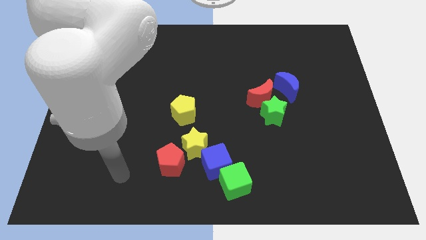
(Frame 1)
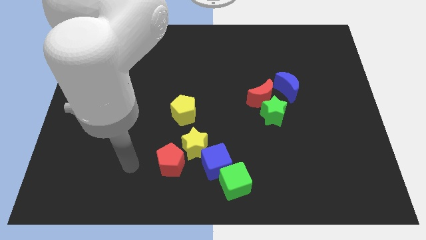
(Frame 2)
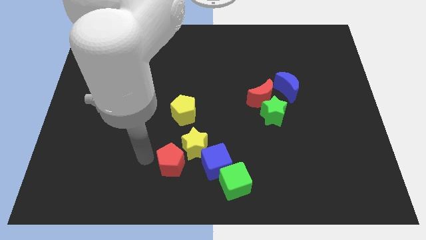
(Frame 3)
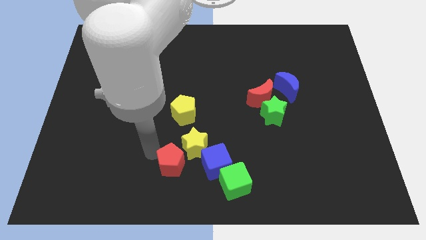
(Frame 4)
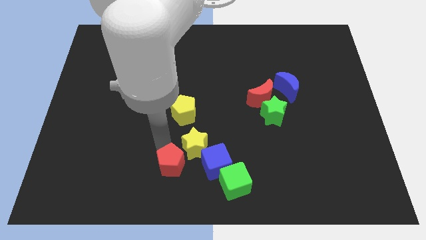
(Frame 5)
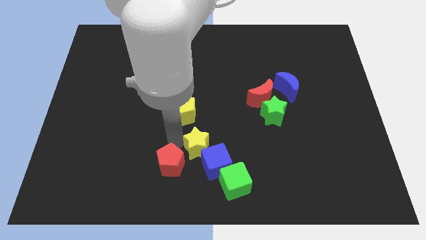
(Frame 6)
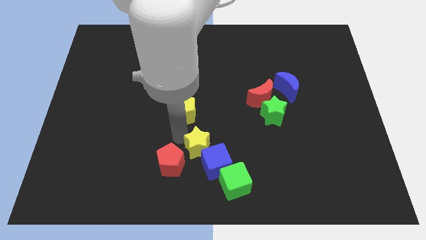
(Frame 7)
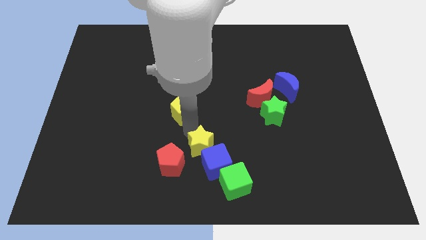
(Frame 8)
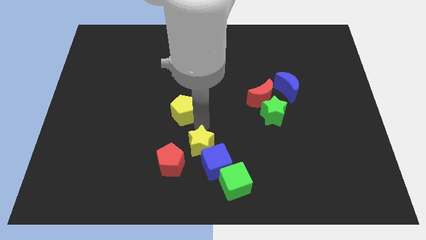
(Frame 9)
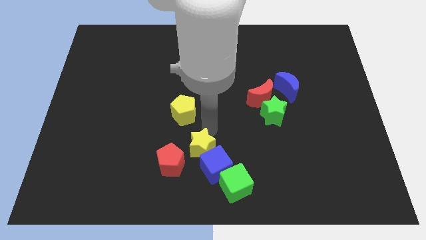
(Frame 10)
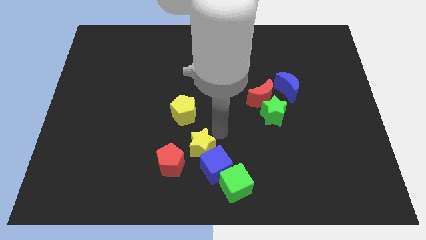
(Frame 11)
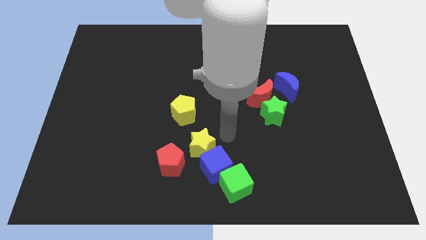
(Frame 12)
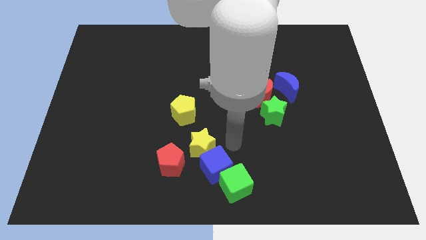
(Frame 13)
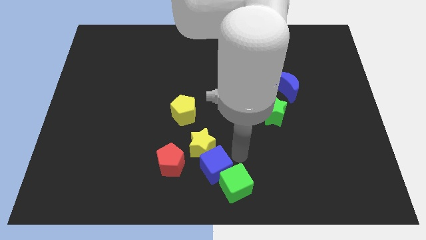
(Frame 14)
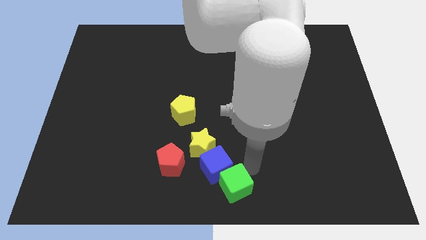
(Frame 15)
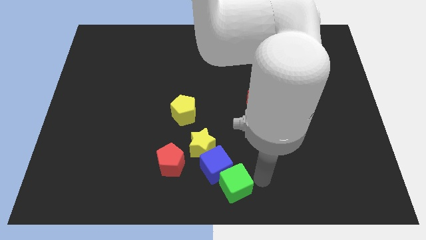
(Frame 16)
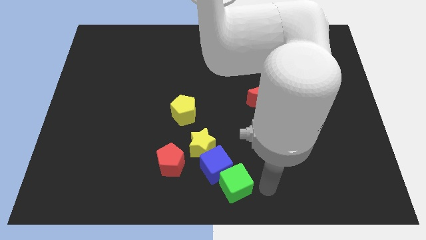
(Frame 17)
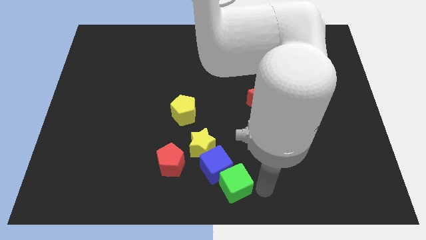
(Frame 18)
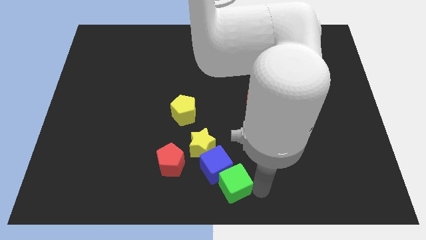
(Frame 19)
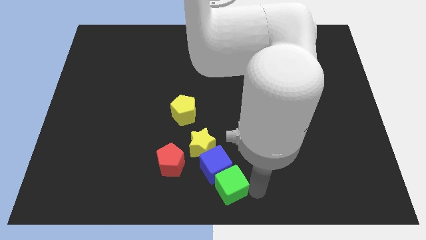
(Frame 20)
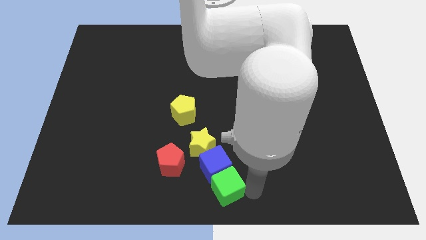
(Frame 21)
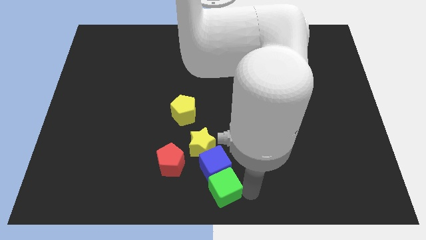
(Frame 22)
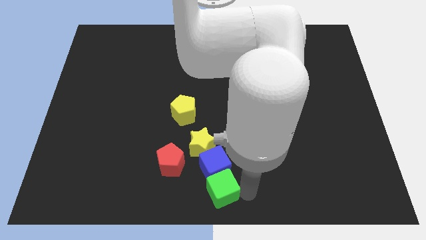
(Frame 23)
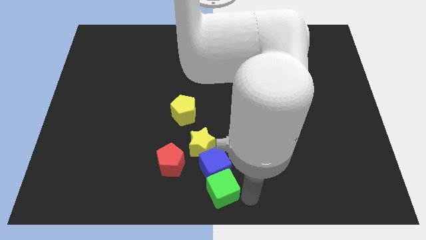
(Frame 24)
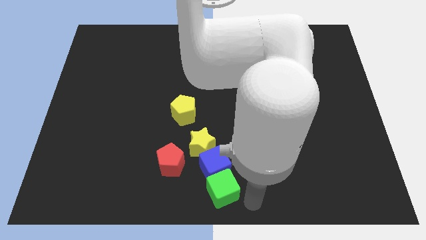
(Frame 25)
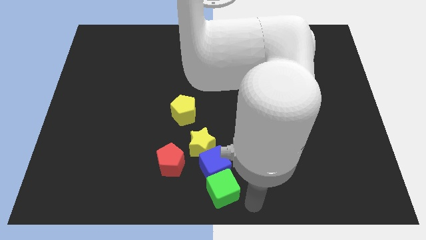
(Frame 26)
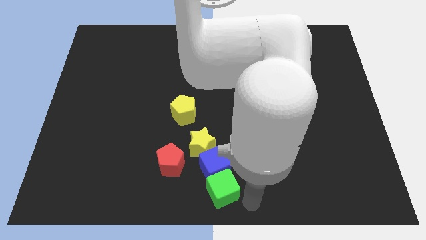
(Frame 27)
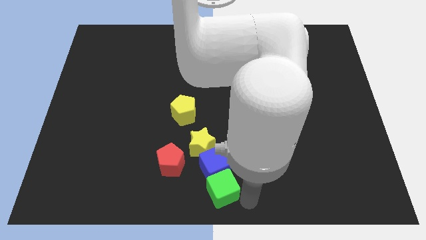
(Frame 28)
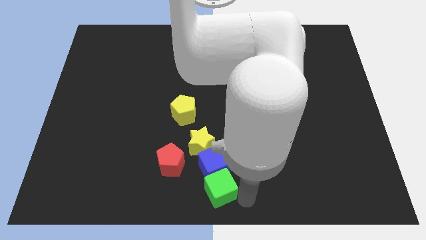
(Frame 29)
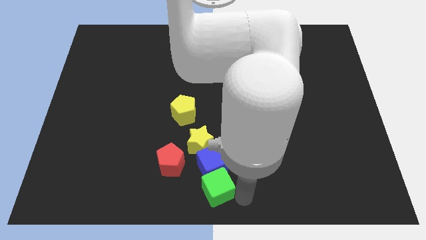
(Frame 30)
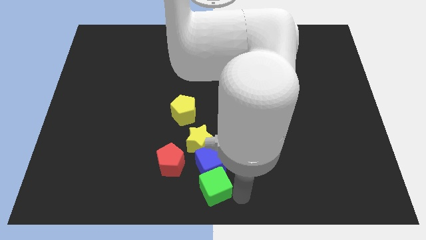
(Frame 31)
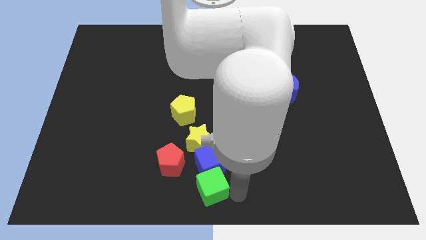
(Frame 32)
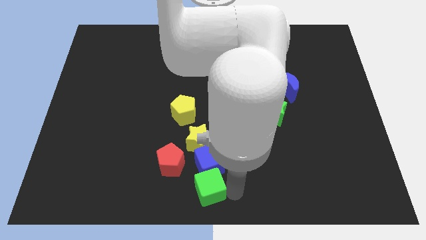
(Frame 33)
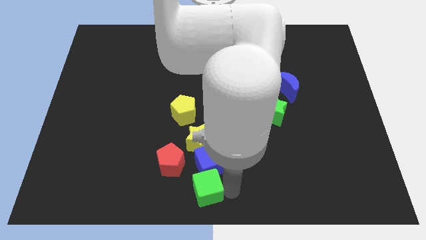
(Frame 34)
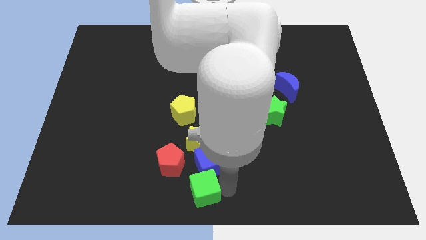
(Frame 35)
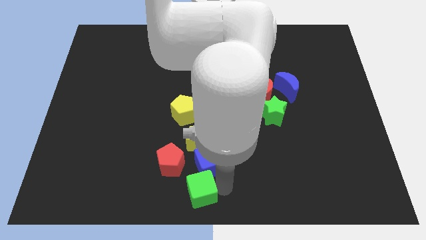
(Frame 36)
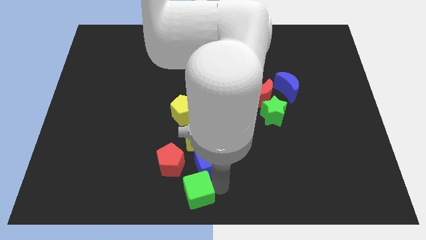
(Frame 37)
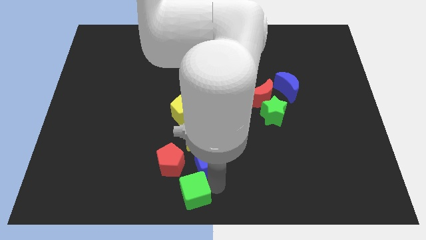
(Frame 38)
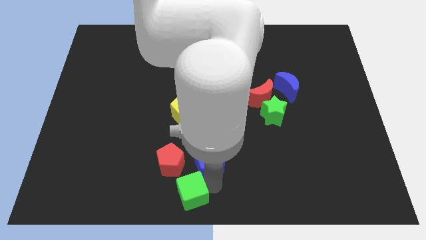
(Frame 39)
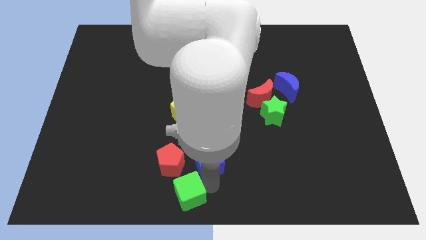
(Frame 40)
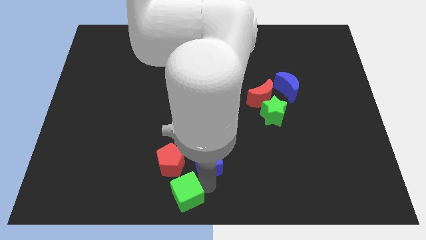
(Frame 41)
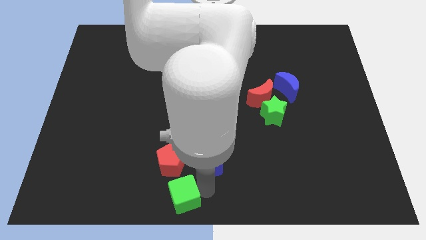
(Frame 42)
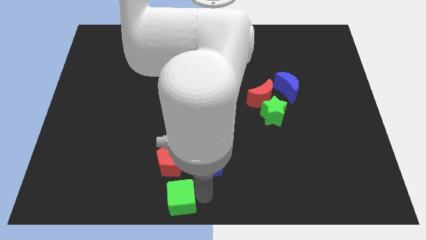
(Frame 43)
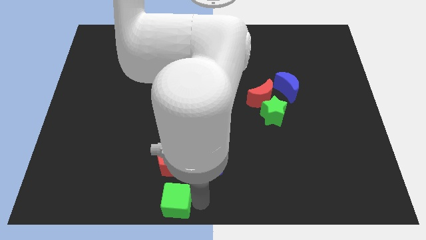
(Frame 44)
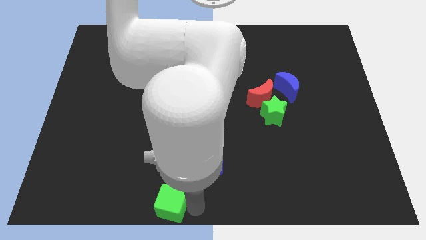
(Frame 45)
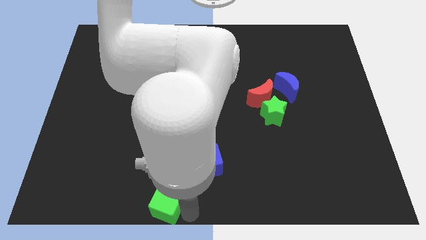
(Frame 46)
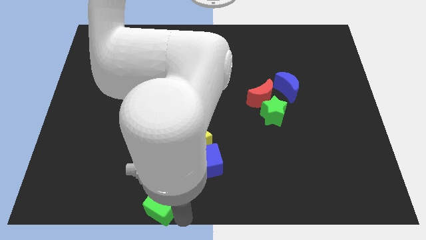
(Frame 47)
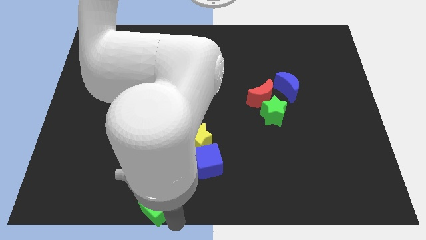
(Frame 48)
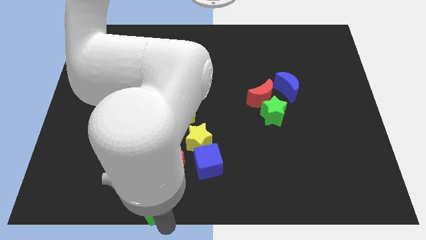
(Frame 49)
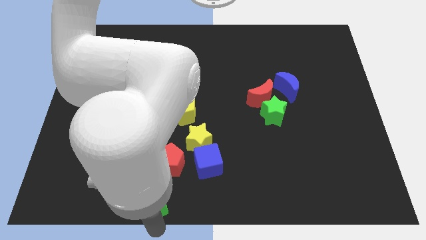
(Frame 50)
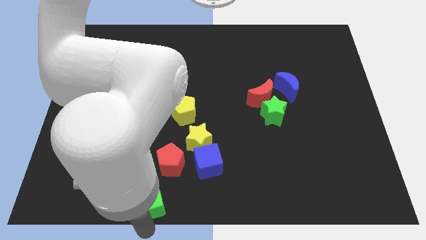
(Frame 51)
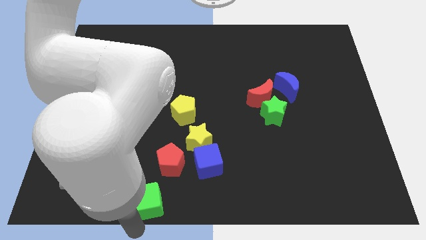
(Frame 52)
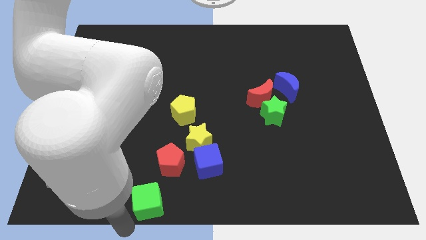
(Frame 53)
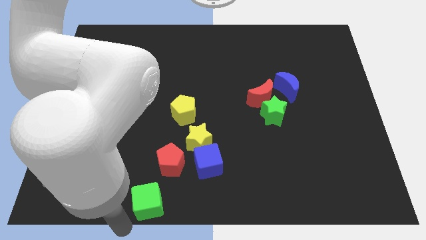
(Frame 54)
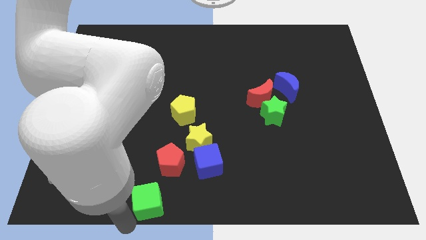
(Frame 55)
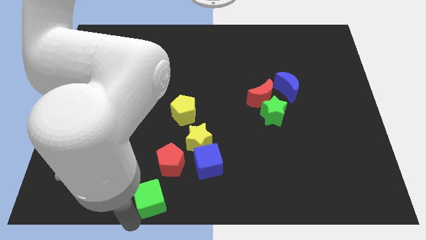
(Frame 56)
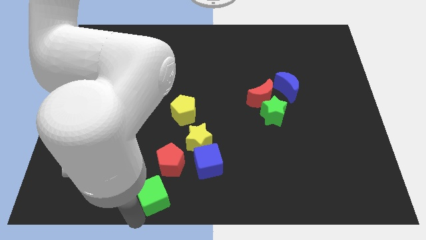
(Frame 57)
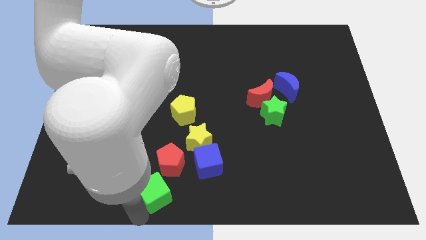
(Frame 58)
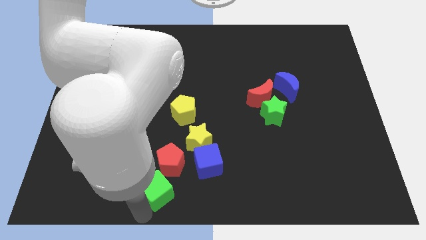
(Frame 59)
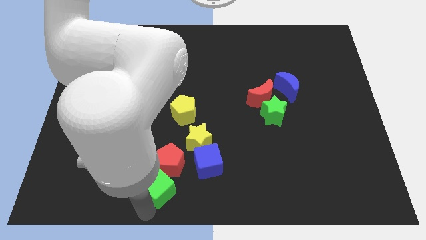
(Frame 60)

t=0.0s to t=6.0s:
push the green cube towards the red pentagon

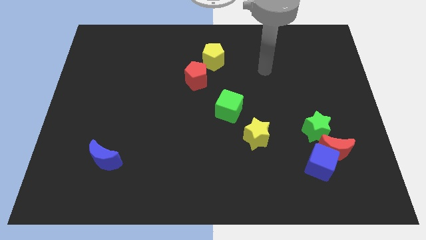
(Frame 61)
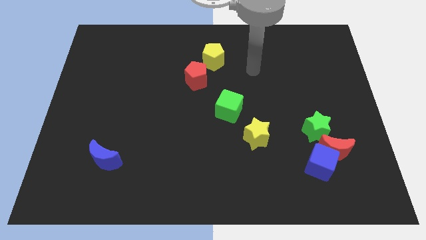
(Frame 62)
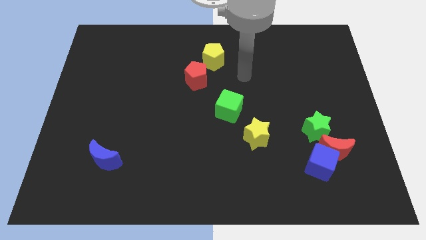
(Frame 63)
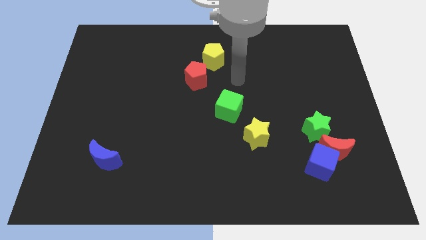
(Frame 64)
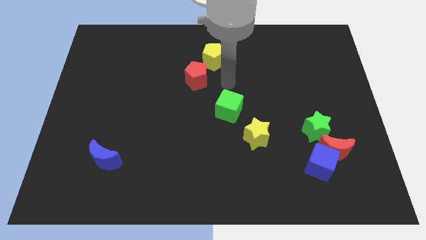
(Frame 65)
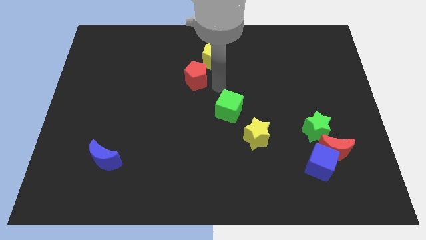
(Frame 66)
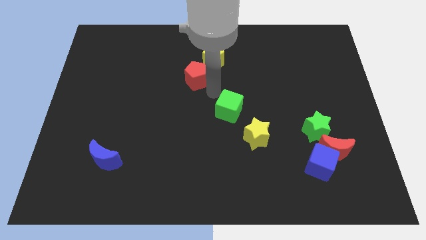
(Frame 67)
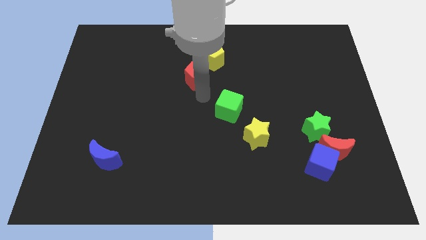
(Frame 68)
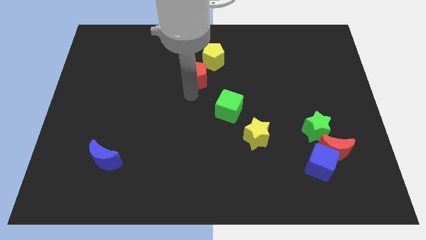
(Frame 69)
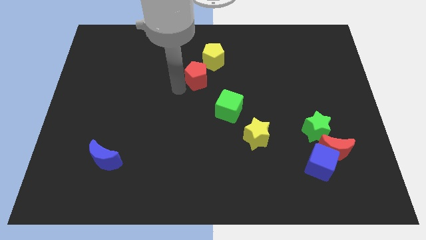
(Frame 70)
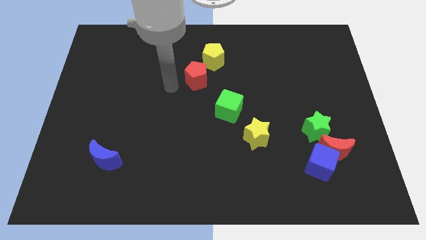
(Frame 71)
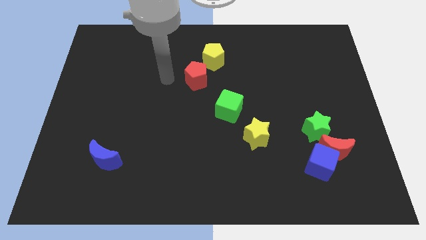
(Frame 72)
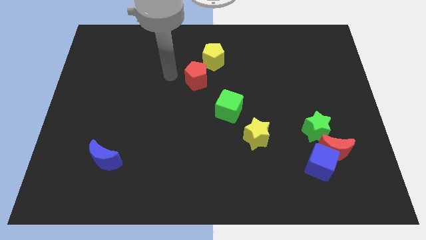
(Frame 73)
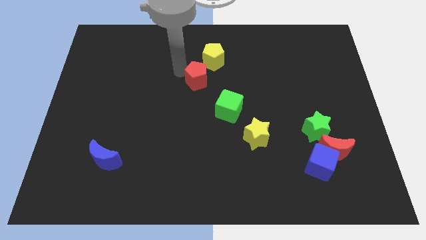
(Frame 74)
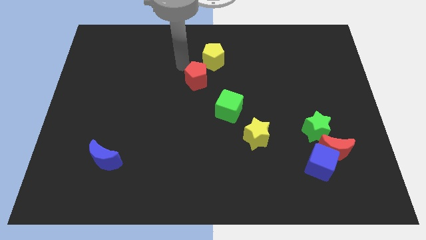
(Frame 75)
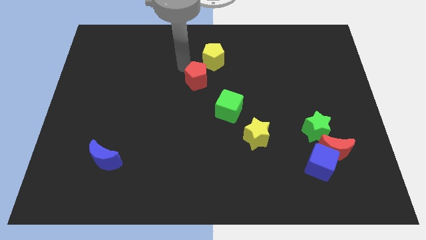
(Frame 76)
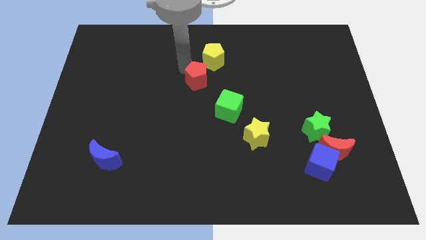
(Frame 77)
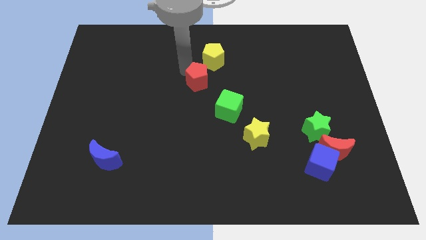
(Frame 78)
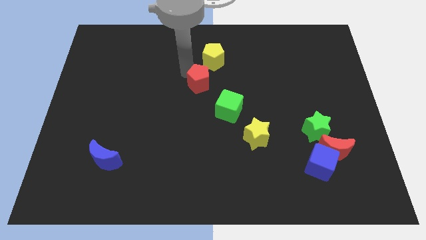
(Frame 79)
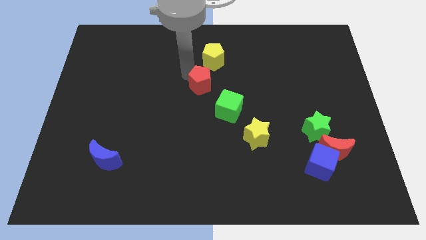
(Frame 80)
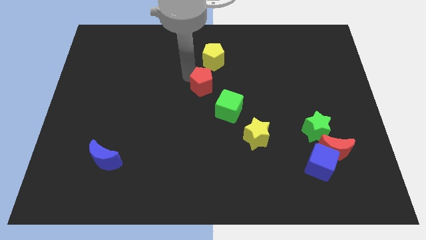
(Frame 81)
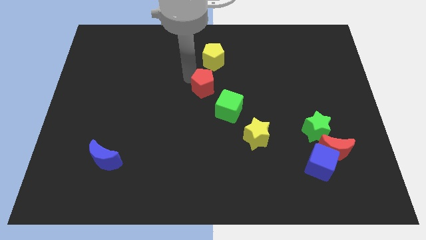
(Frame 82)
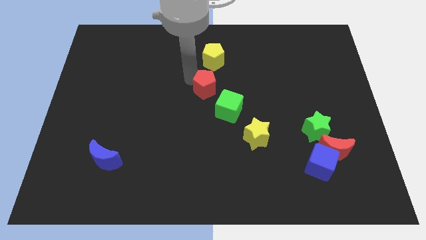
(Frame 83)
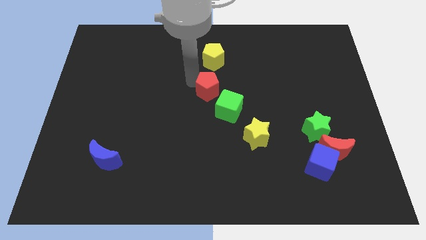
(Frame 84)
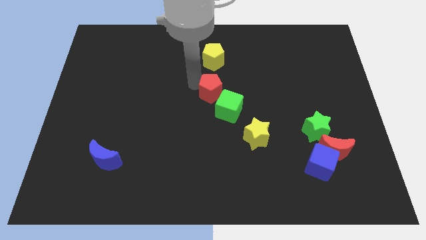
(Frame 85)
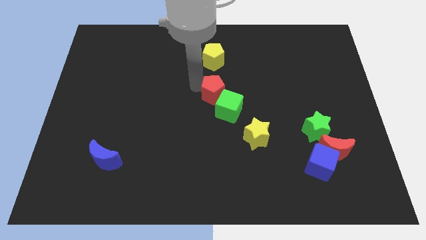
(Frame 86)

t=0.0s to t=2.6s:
slide the red pentagon next to the green cube
